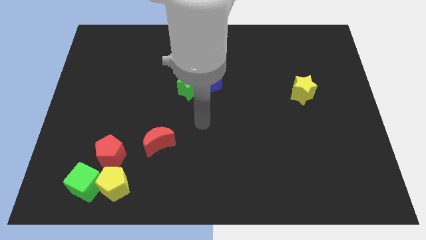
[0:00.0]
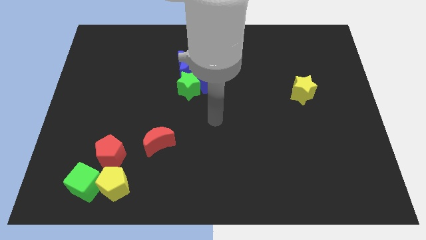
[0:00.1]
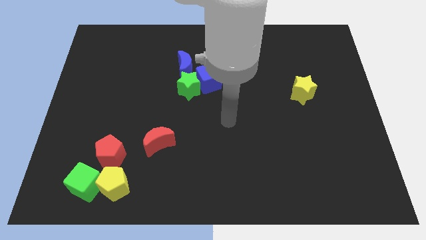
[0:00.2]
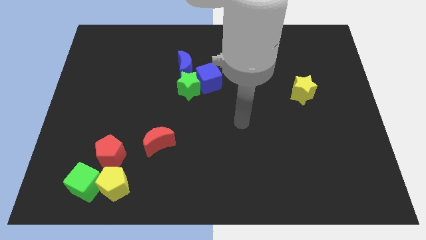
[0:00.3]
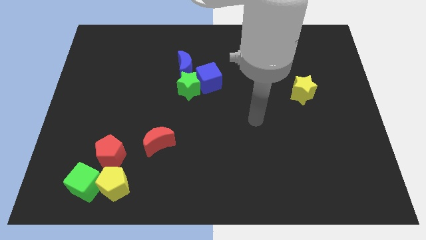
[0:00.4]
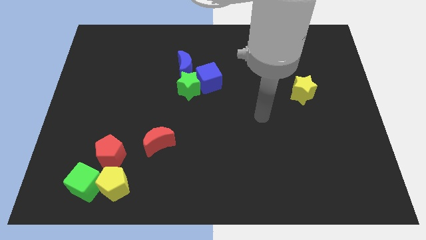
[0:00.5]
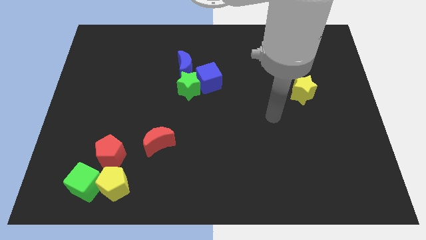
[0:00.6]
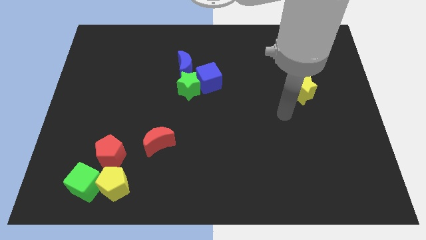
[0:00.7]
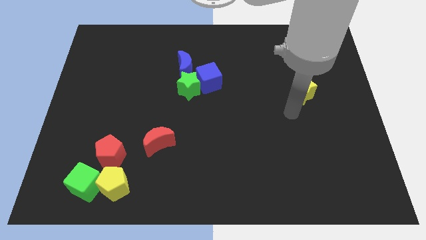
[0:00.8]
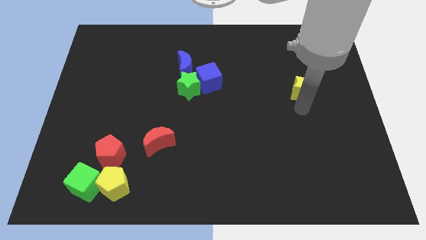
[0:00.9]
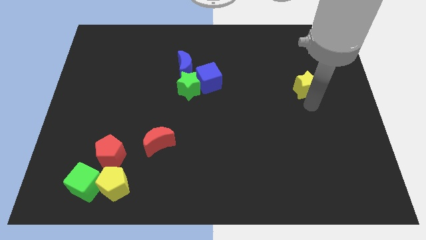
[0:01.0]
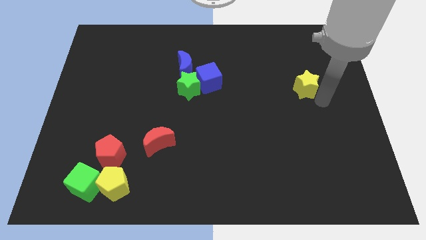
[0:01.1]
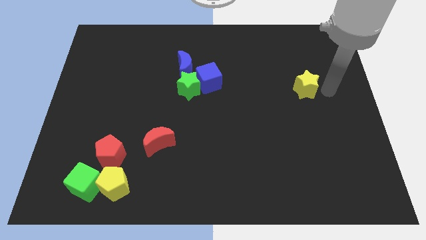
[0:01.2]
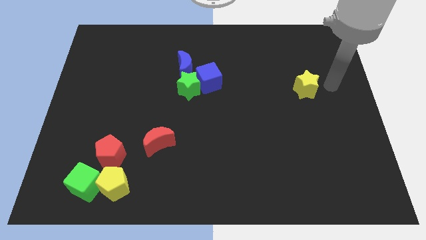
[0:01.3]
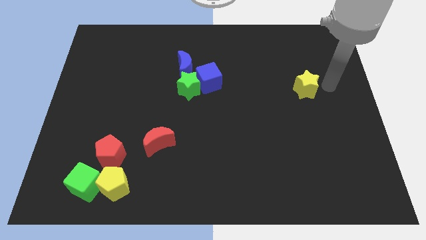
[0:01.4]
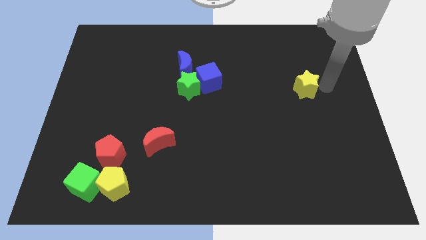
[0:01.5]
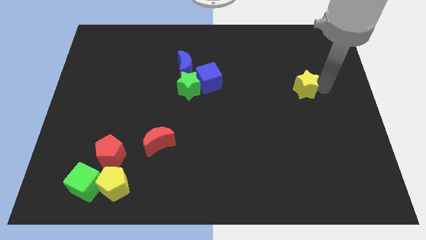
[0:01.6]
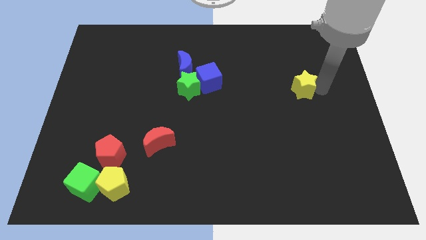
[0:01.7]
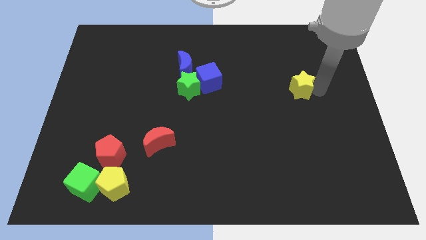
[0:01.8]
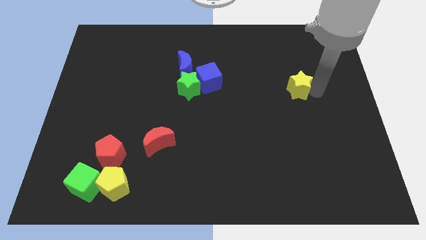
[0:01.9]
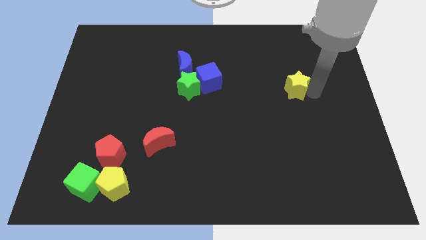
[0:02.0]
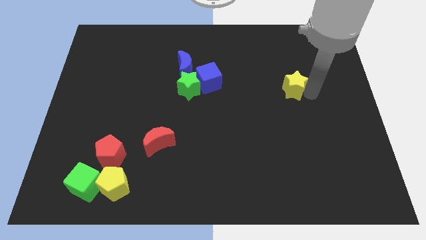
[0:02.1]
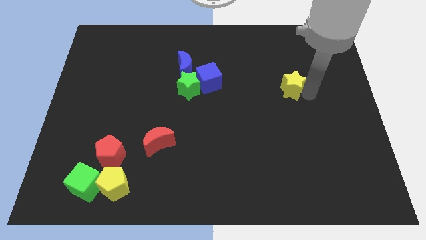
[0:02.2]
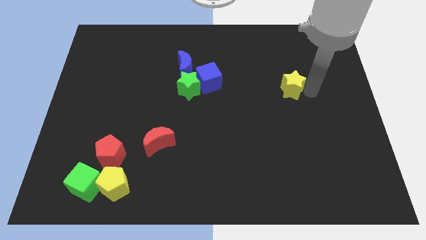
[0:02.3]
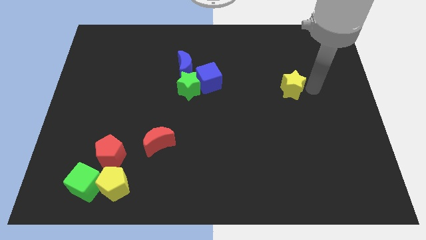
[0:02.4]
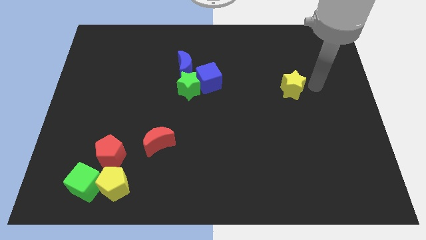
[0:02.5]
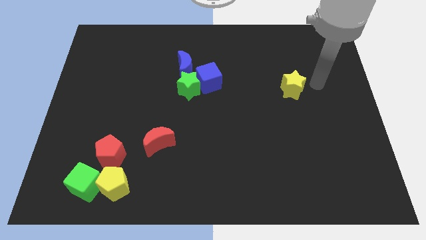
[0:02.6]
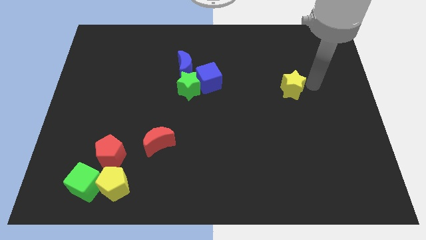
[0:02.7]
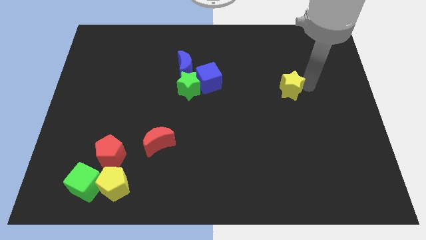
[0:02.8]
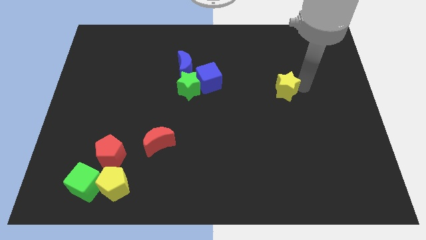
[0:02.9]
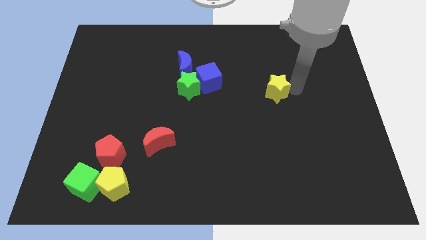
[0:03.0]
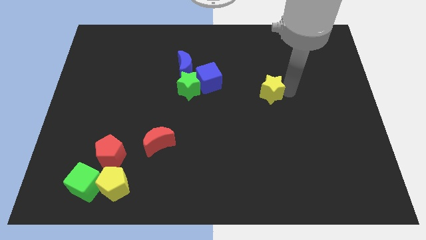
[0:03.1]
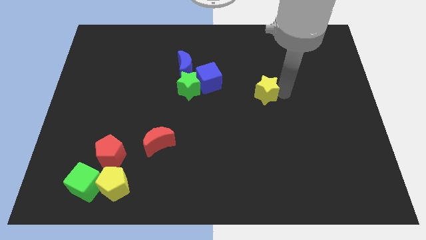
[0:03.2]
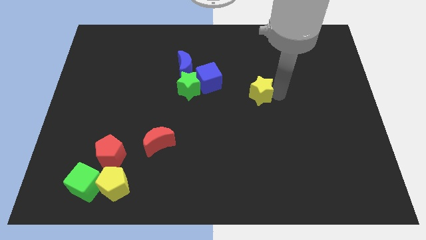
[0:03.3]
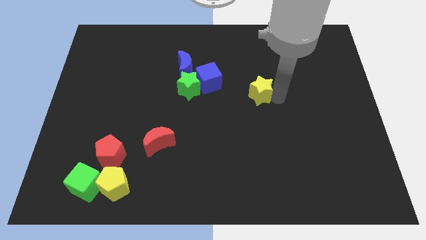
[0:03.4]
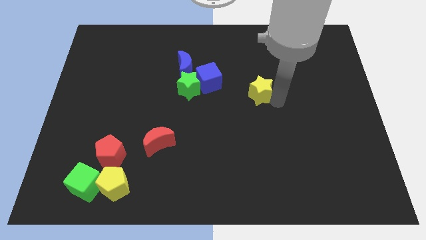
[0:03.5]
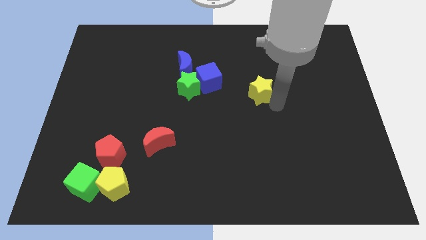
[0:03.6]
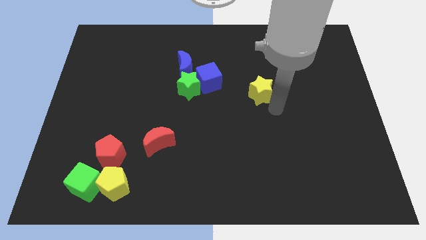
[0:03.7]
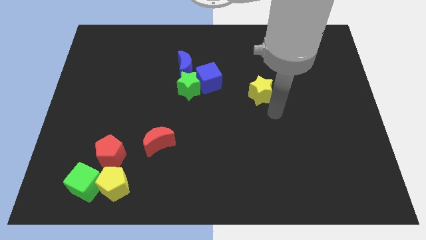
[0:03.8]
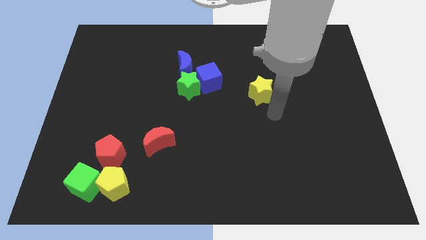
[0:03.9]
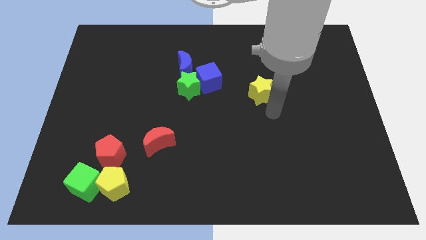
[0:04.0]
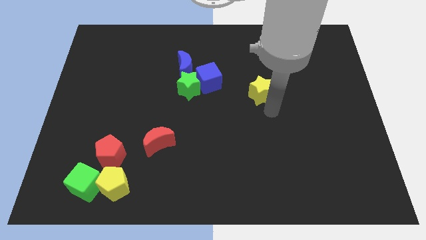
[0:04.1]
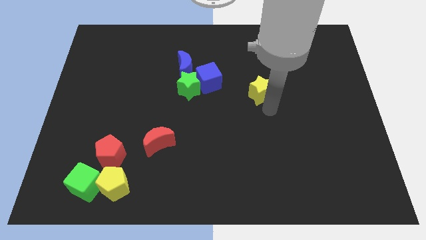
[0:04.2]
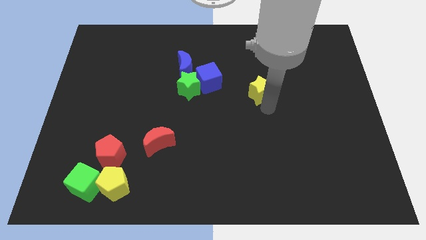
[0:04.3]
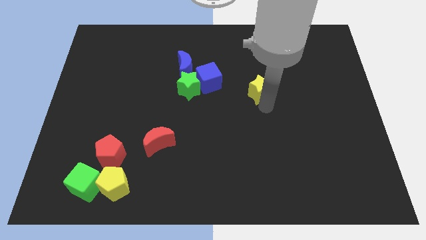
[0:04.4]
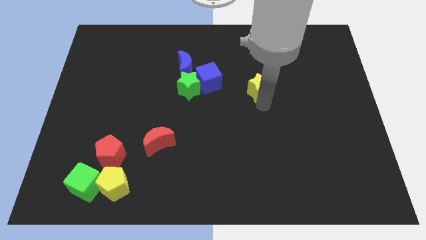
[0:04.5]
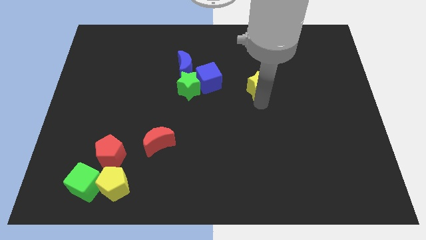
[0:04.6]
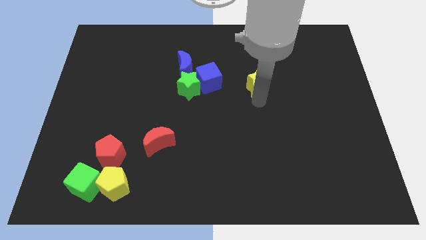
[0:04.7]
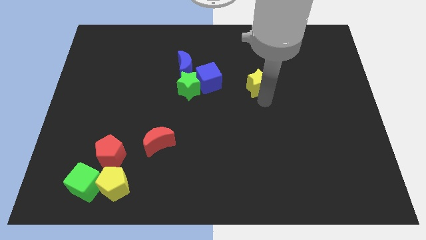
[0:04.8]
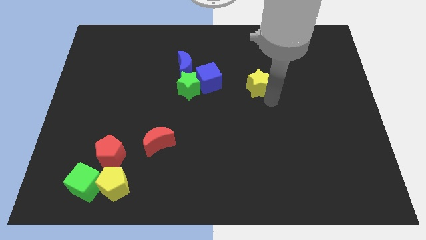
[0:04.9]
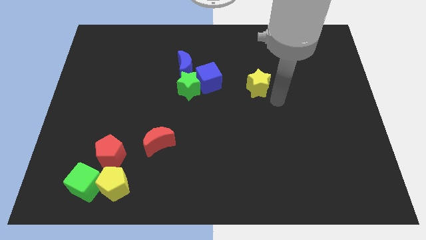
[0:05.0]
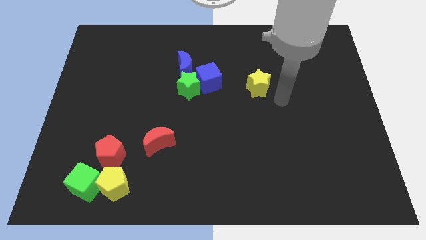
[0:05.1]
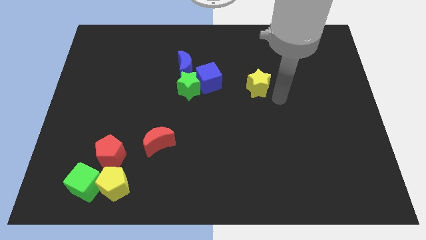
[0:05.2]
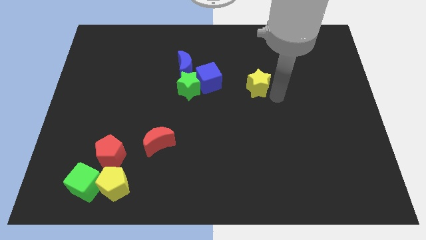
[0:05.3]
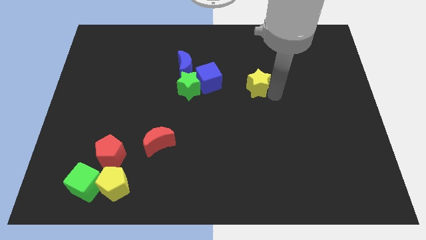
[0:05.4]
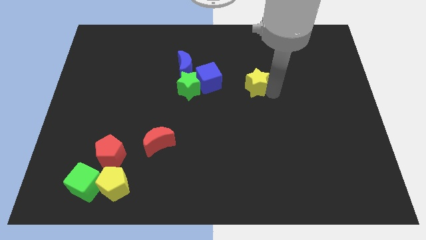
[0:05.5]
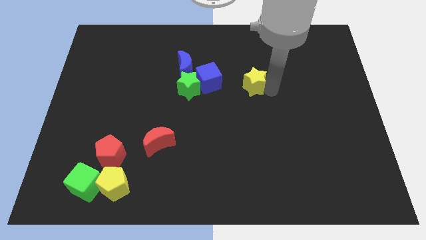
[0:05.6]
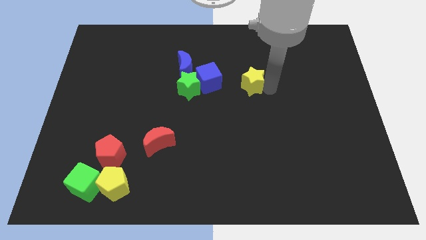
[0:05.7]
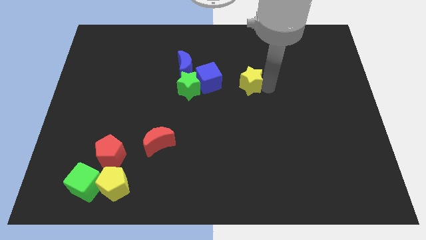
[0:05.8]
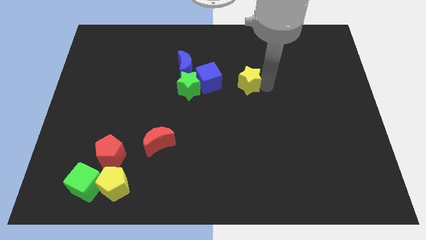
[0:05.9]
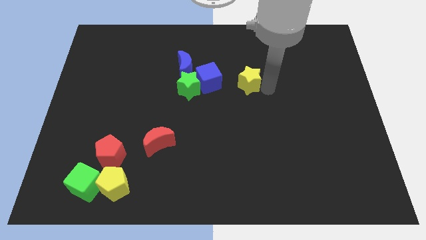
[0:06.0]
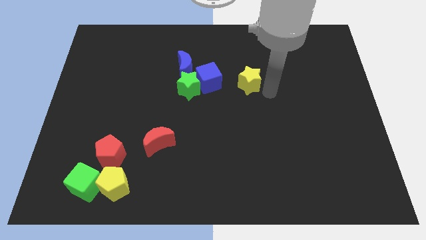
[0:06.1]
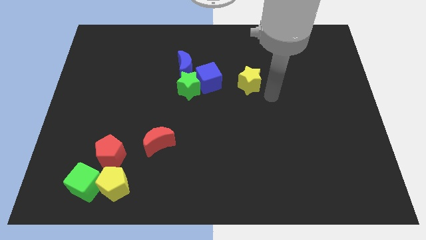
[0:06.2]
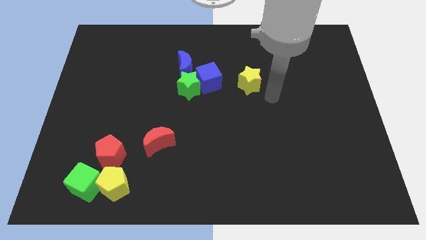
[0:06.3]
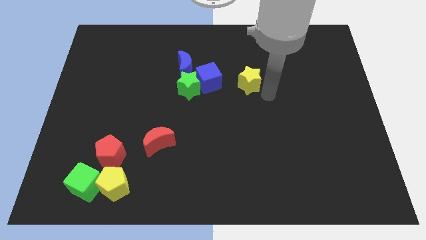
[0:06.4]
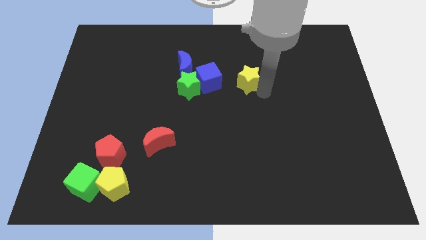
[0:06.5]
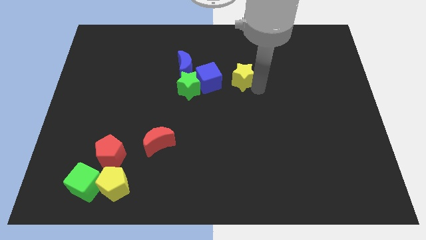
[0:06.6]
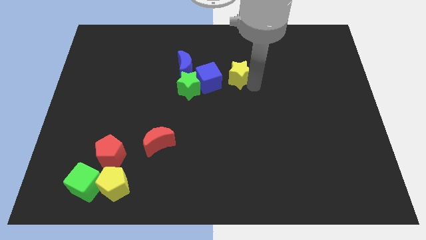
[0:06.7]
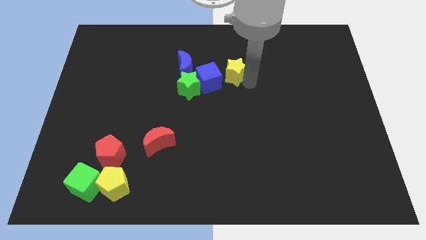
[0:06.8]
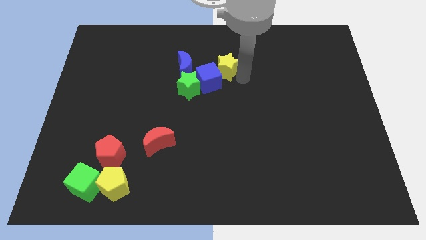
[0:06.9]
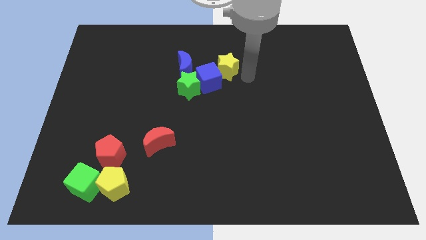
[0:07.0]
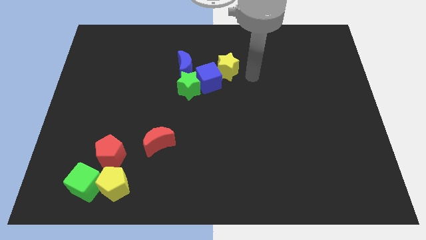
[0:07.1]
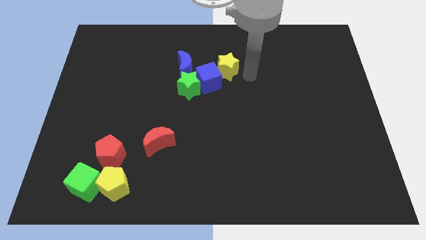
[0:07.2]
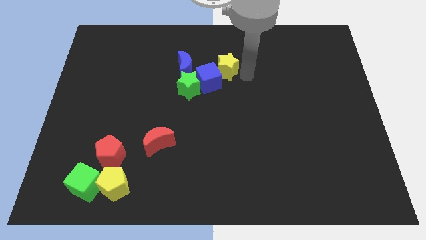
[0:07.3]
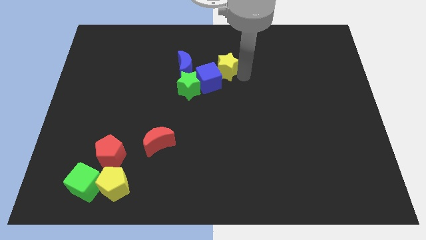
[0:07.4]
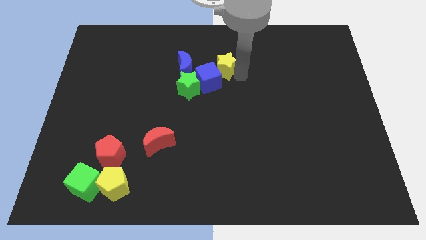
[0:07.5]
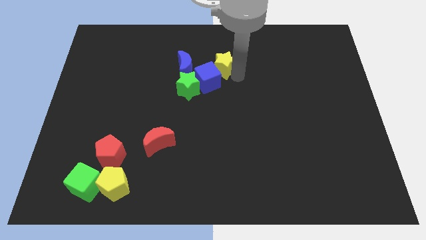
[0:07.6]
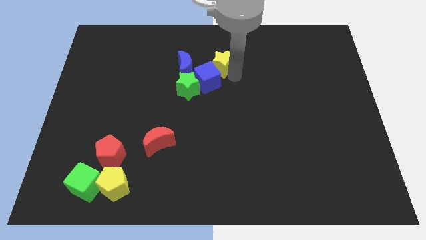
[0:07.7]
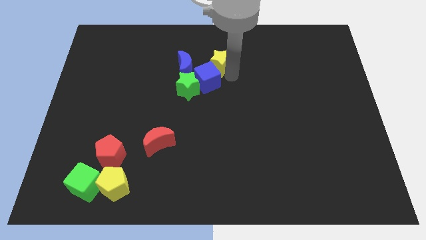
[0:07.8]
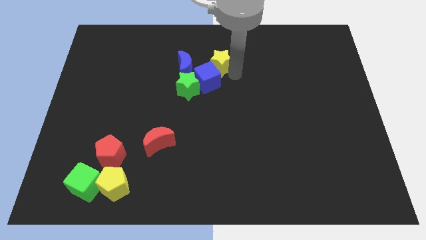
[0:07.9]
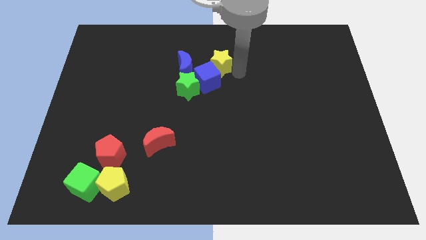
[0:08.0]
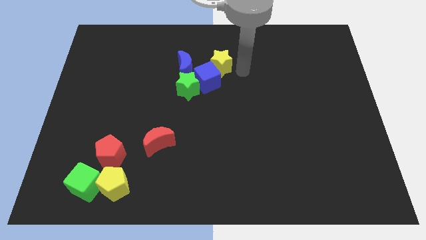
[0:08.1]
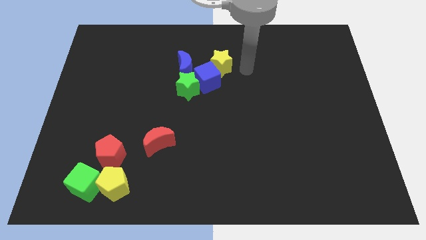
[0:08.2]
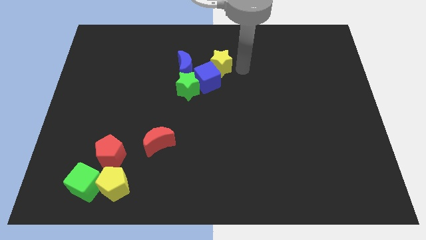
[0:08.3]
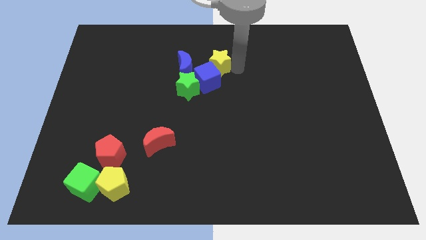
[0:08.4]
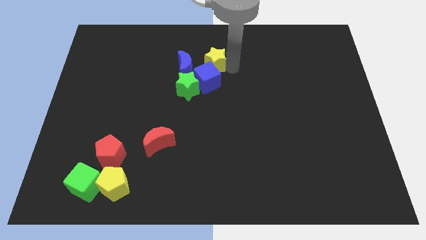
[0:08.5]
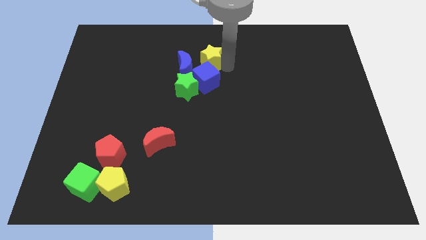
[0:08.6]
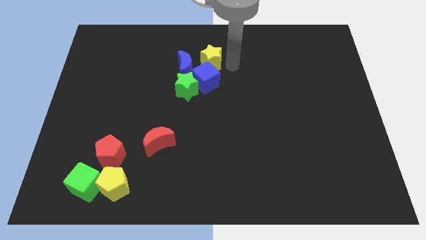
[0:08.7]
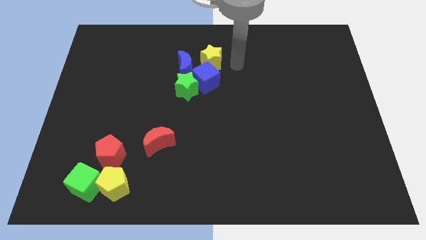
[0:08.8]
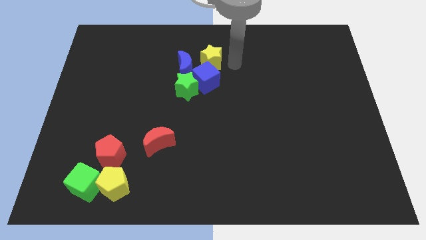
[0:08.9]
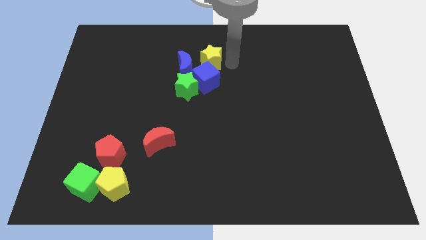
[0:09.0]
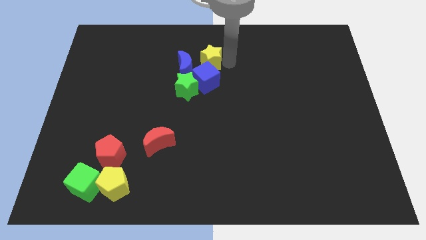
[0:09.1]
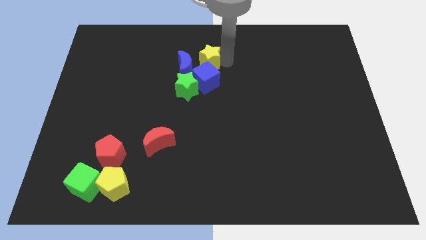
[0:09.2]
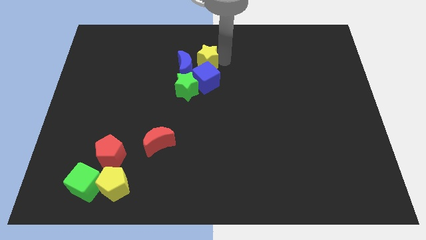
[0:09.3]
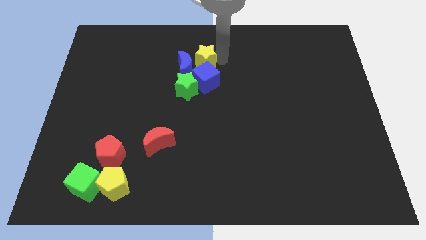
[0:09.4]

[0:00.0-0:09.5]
put the yellow star to the top of the green star
